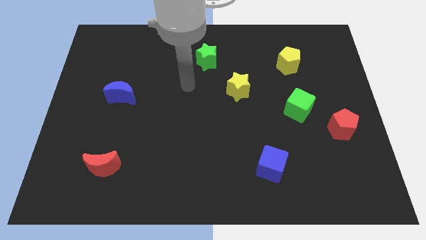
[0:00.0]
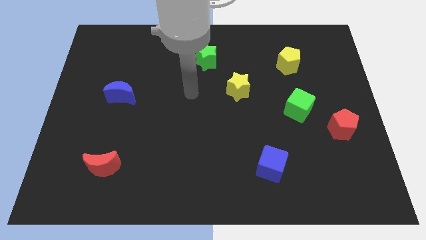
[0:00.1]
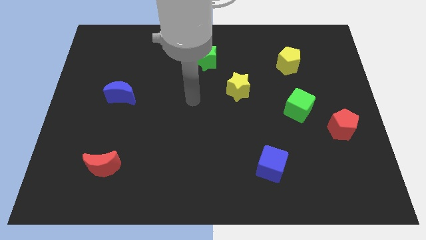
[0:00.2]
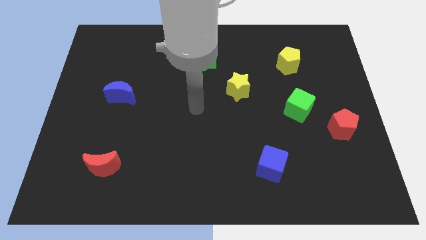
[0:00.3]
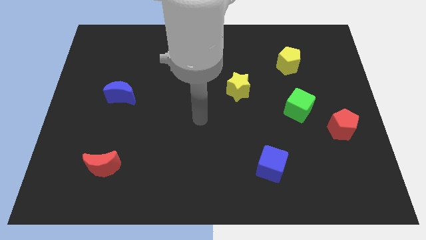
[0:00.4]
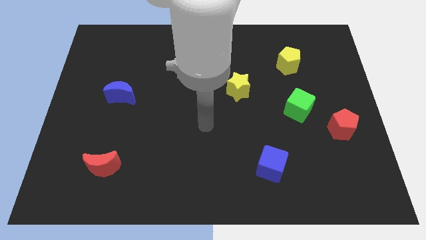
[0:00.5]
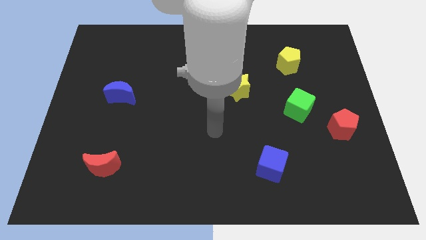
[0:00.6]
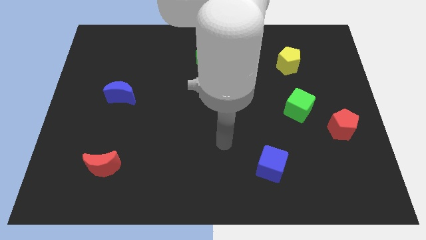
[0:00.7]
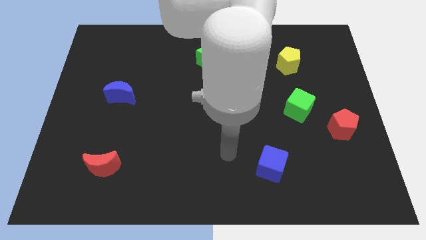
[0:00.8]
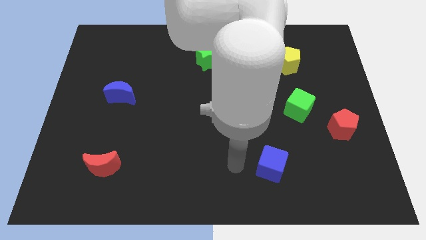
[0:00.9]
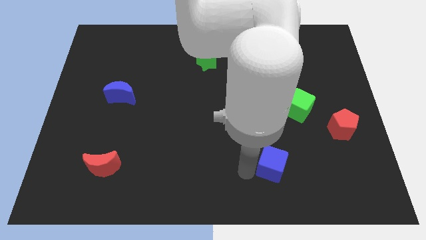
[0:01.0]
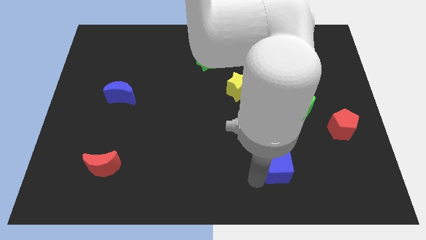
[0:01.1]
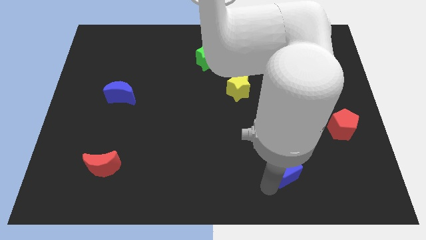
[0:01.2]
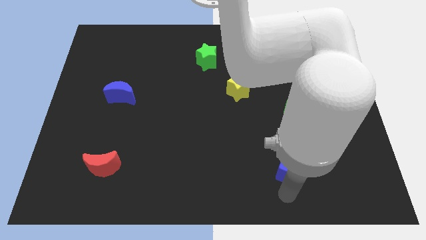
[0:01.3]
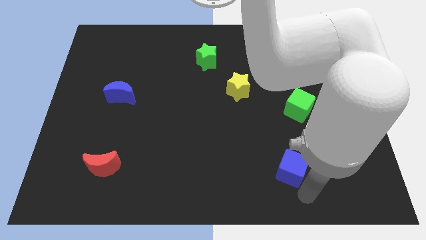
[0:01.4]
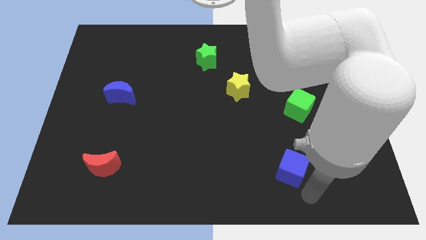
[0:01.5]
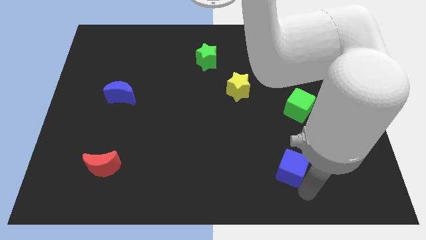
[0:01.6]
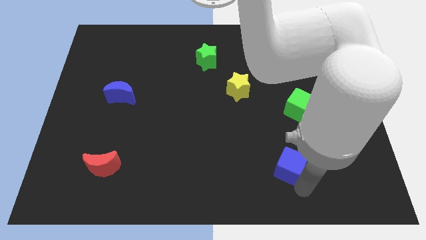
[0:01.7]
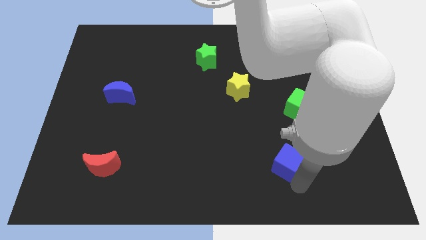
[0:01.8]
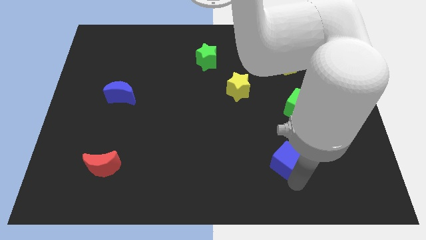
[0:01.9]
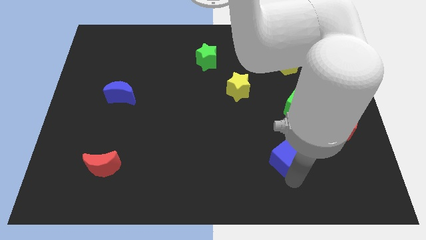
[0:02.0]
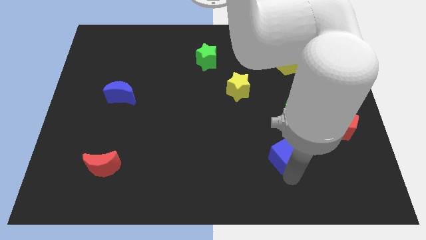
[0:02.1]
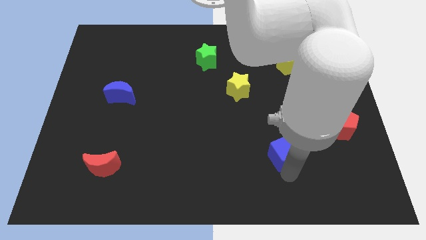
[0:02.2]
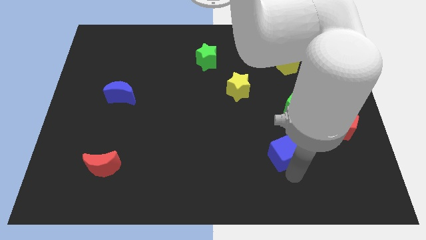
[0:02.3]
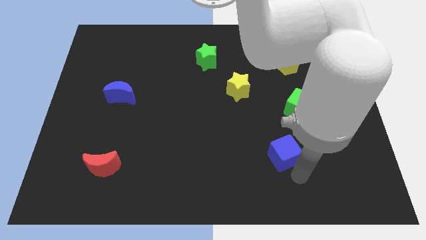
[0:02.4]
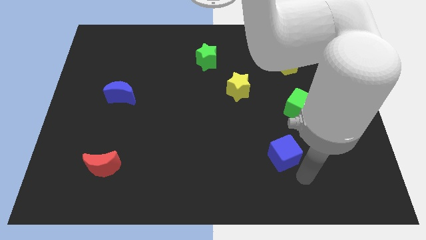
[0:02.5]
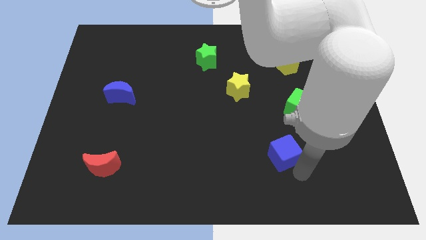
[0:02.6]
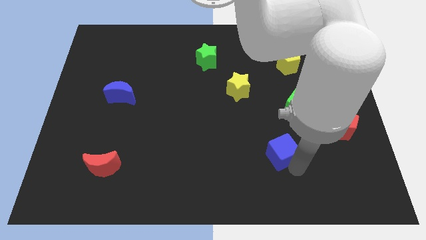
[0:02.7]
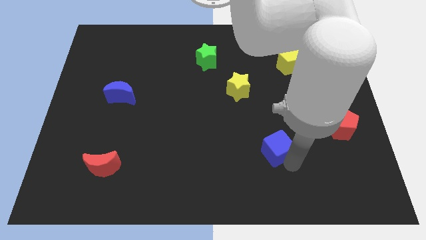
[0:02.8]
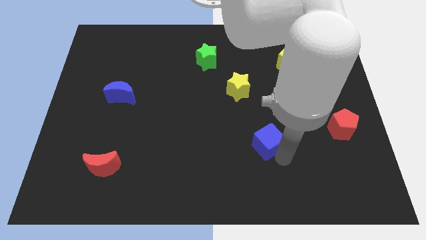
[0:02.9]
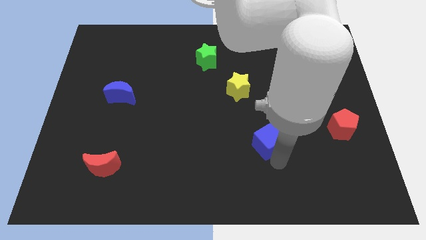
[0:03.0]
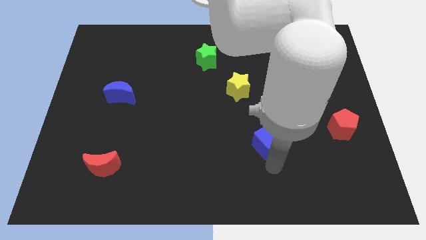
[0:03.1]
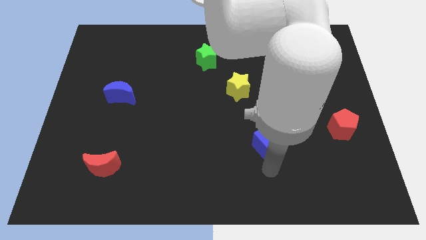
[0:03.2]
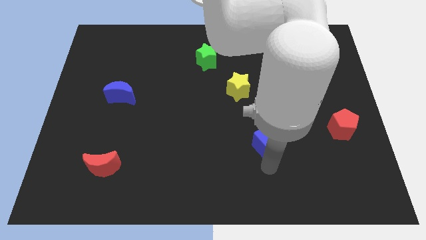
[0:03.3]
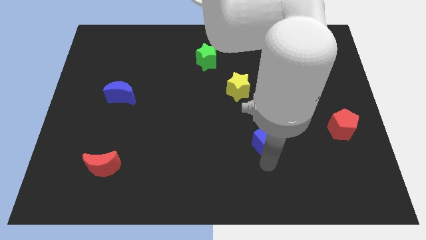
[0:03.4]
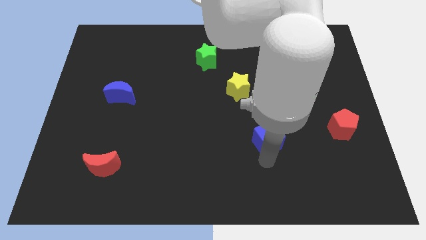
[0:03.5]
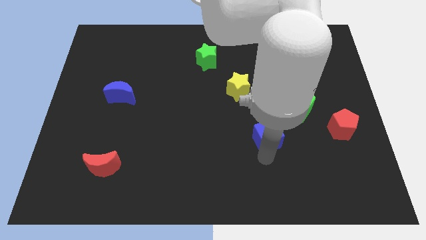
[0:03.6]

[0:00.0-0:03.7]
slide the blue cube a little bit up

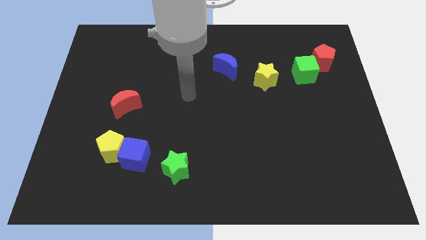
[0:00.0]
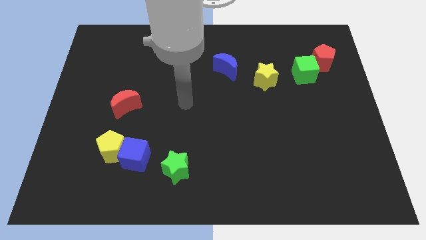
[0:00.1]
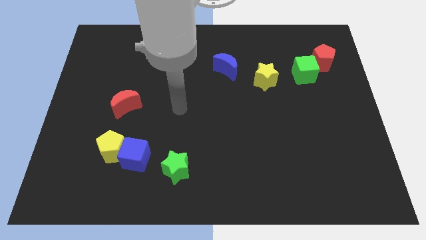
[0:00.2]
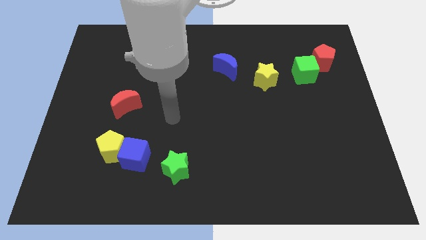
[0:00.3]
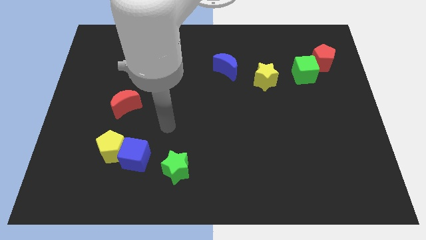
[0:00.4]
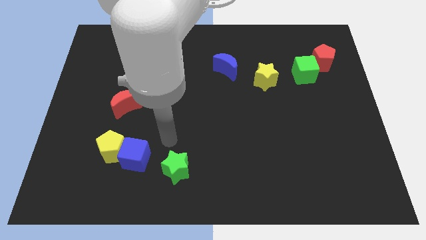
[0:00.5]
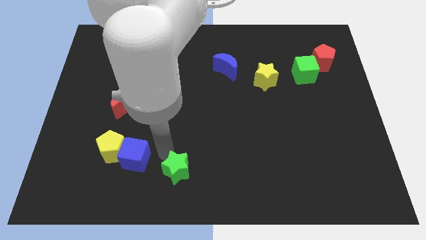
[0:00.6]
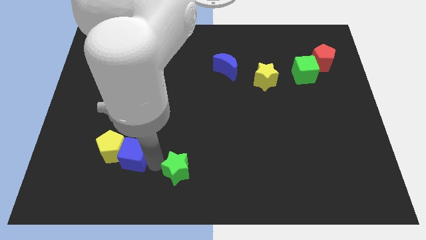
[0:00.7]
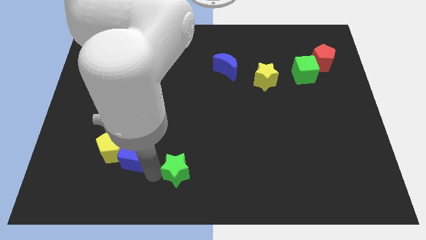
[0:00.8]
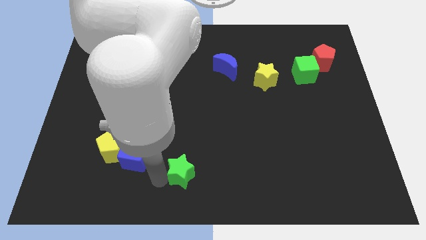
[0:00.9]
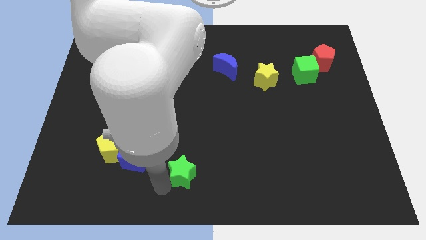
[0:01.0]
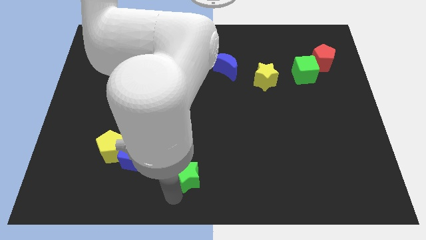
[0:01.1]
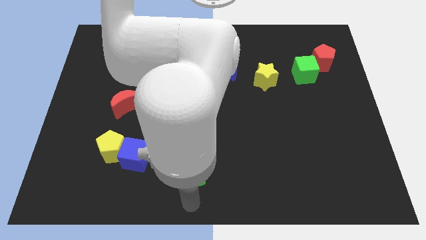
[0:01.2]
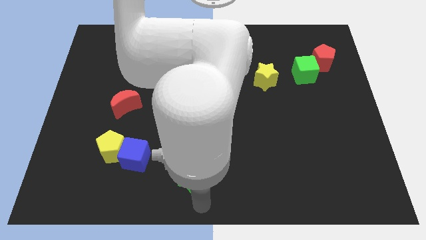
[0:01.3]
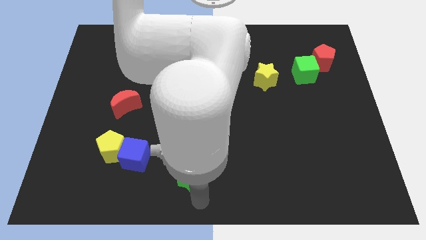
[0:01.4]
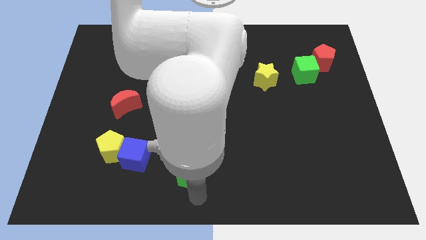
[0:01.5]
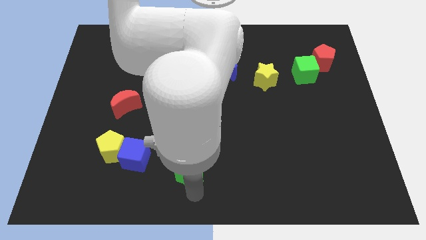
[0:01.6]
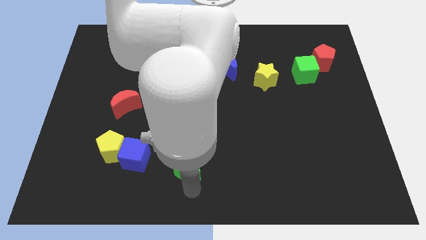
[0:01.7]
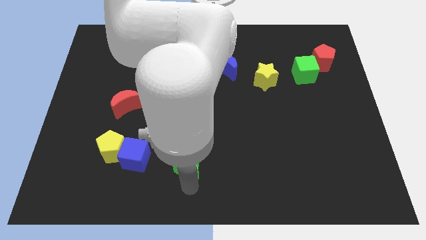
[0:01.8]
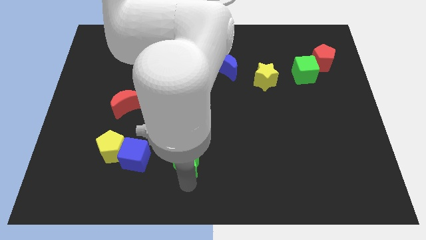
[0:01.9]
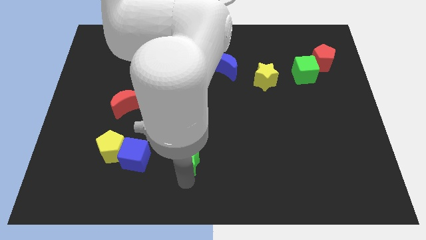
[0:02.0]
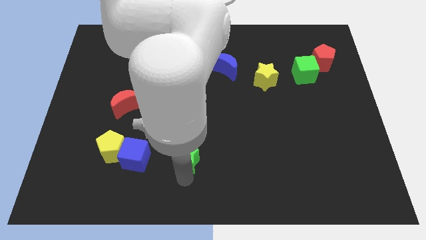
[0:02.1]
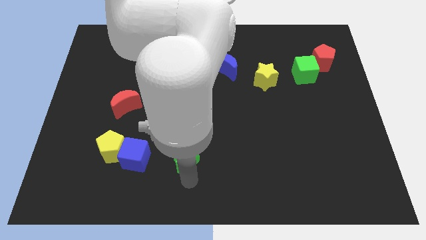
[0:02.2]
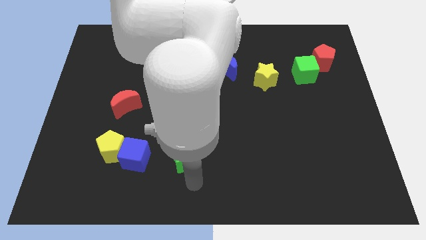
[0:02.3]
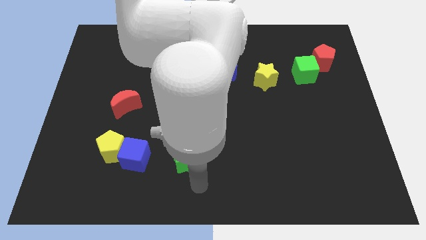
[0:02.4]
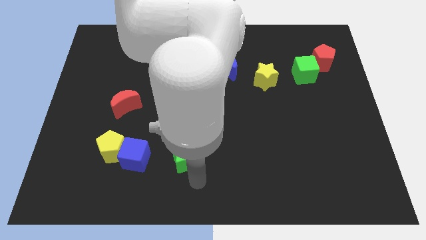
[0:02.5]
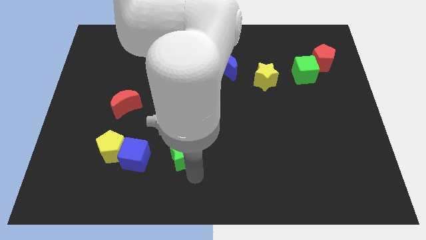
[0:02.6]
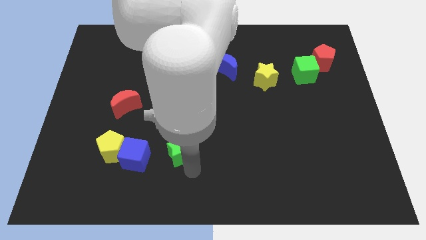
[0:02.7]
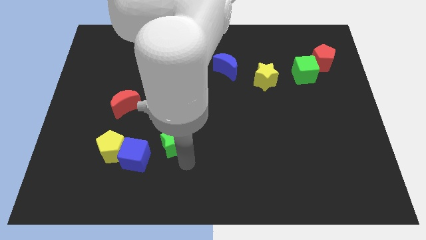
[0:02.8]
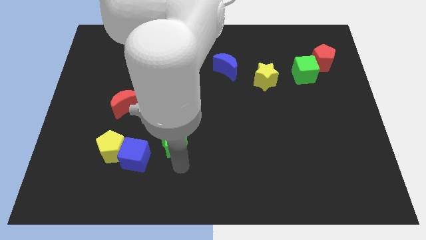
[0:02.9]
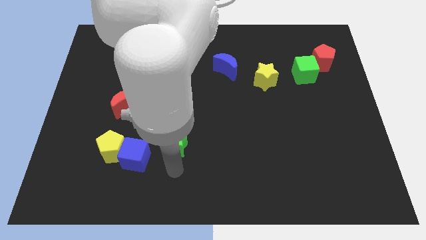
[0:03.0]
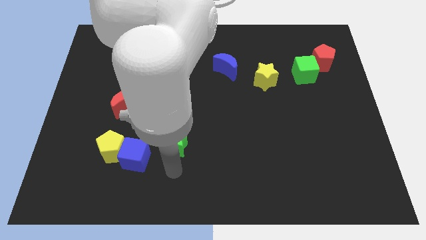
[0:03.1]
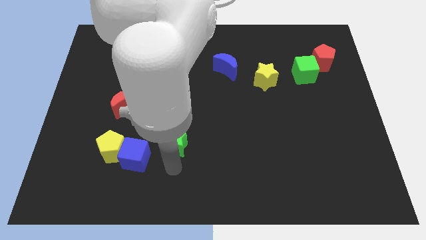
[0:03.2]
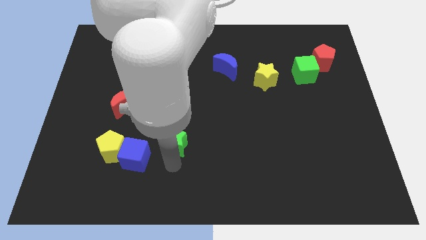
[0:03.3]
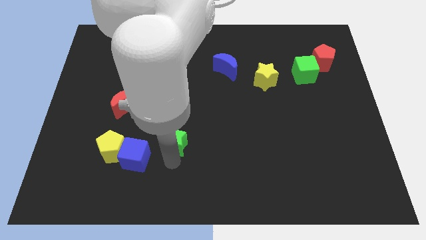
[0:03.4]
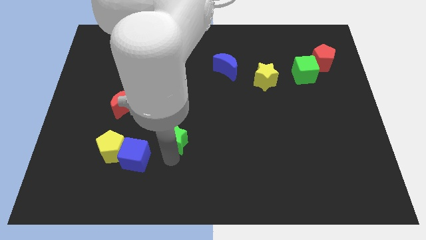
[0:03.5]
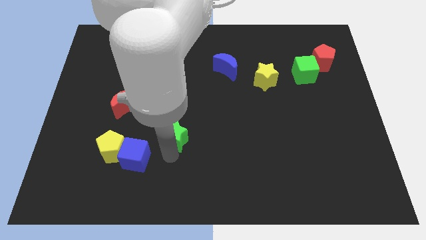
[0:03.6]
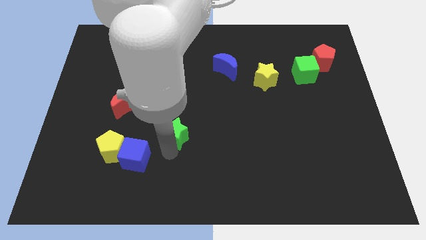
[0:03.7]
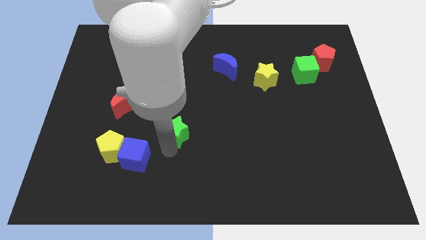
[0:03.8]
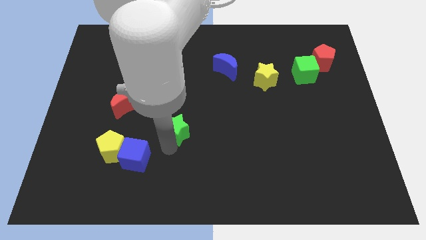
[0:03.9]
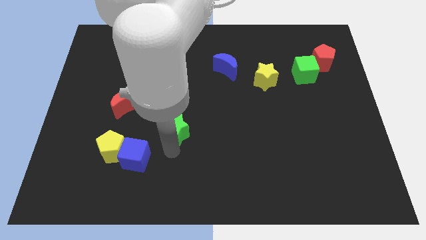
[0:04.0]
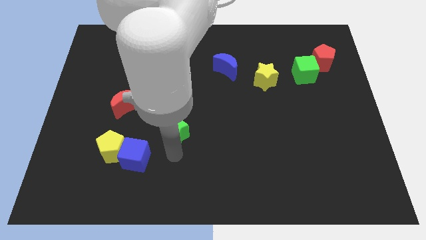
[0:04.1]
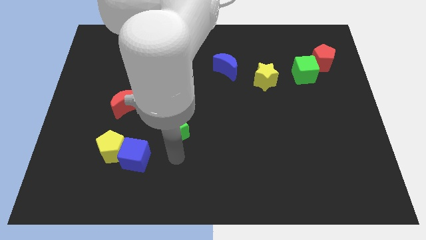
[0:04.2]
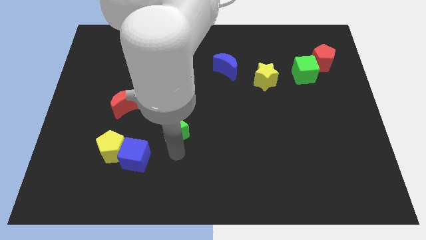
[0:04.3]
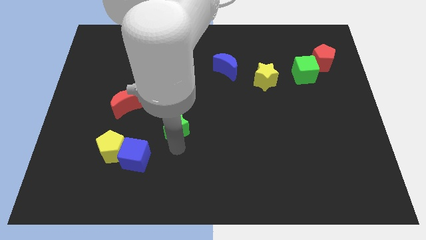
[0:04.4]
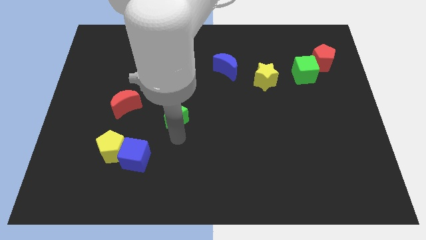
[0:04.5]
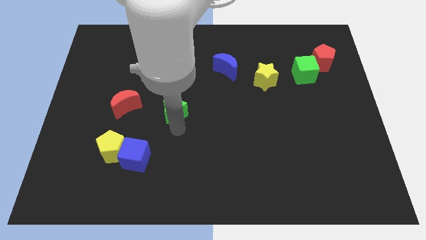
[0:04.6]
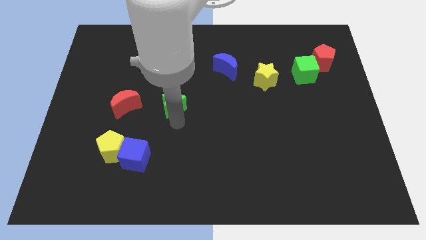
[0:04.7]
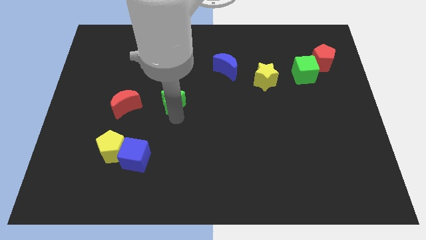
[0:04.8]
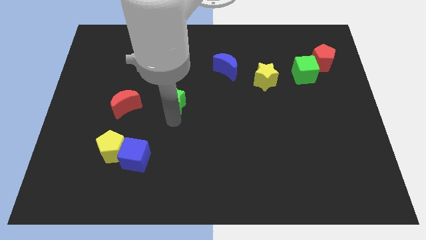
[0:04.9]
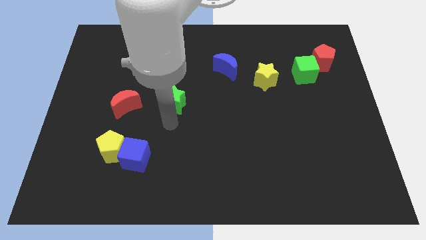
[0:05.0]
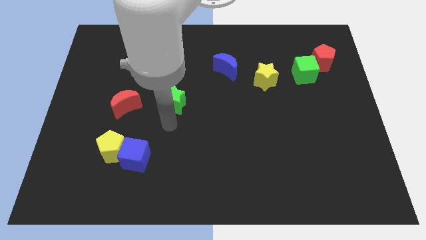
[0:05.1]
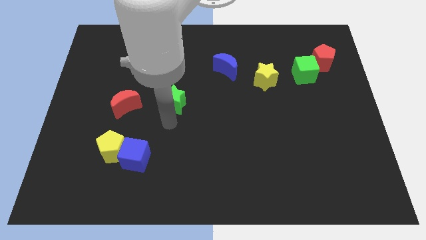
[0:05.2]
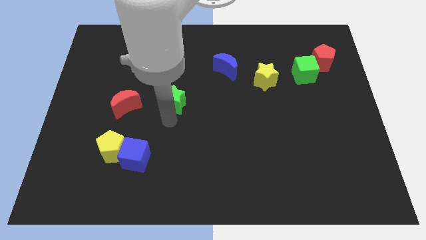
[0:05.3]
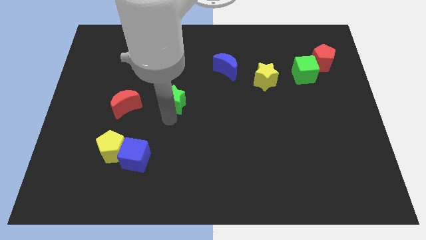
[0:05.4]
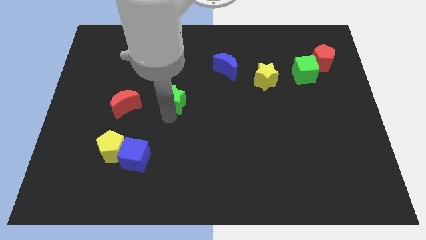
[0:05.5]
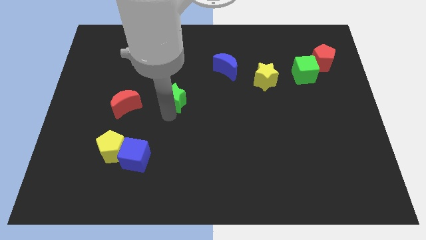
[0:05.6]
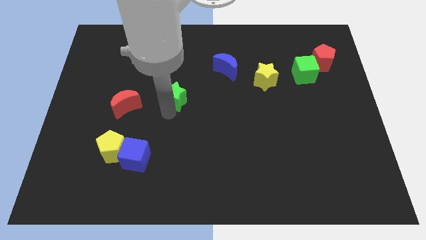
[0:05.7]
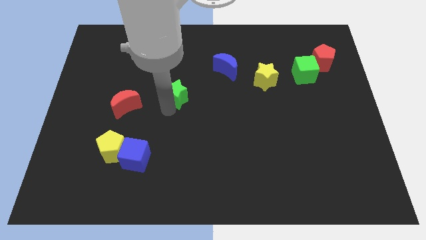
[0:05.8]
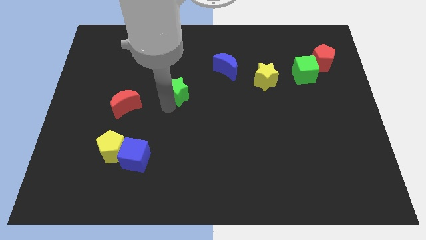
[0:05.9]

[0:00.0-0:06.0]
push the green star upwards
